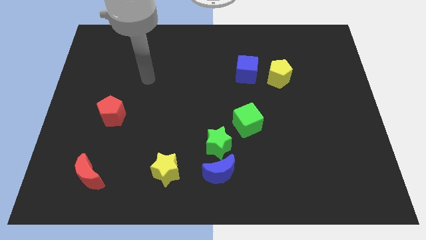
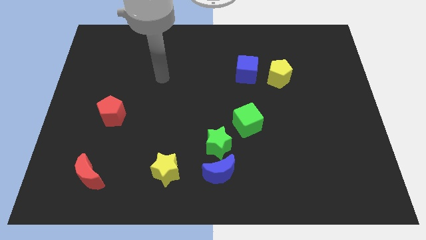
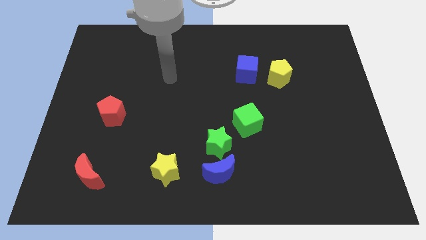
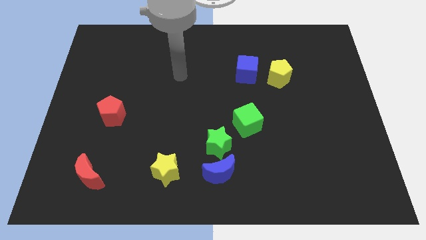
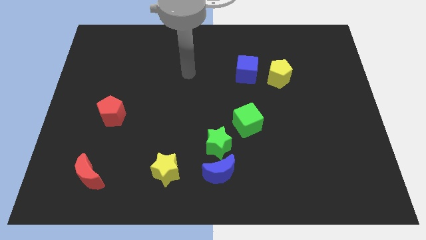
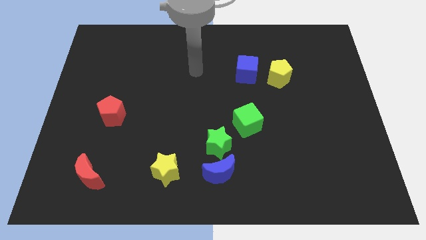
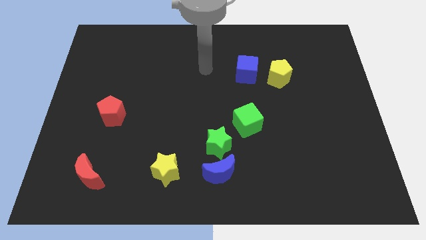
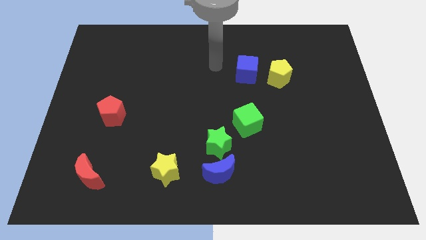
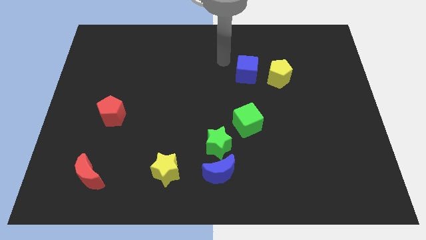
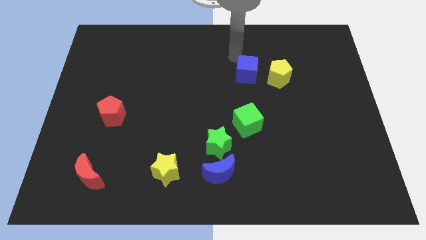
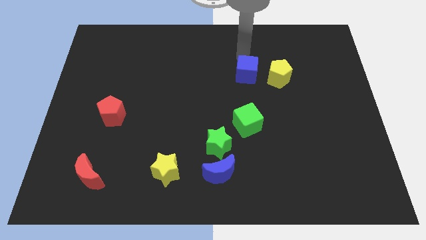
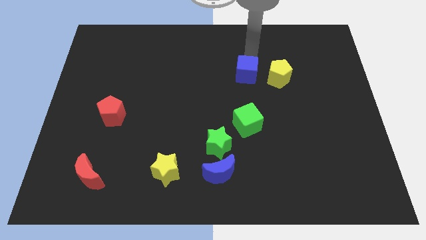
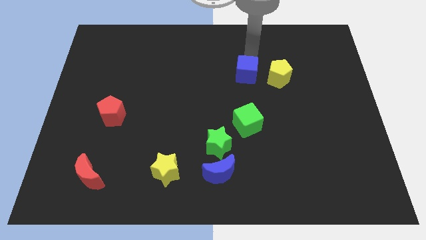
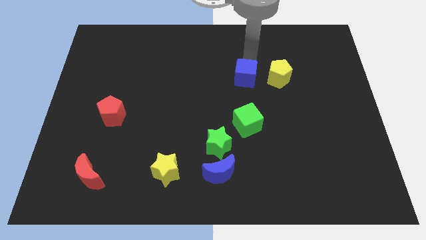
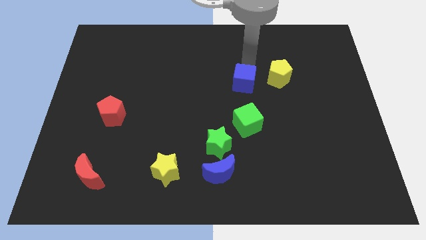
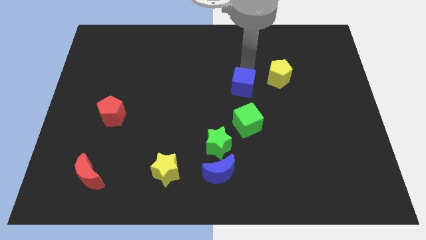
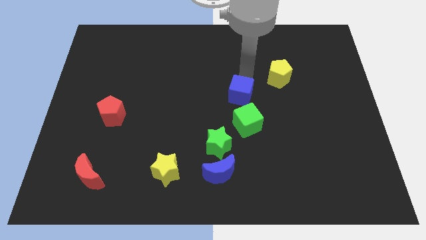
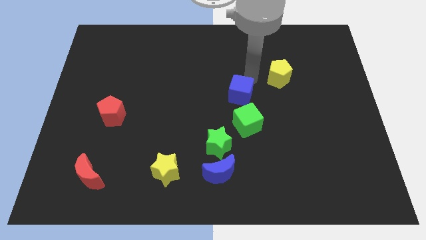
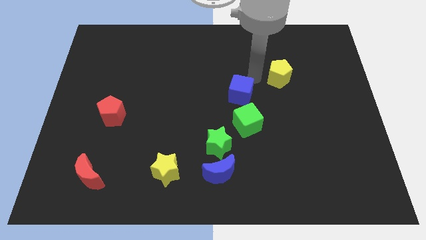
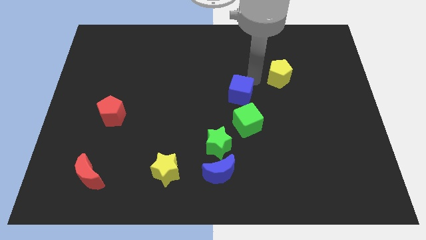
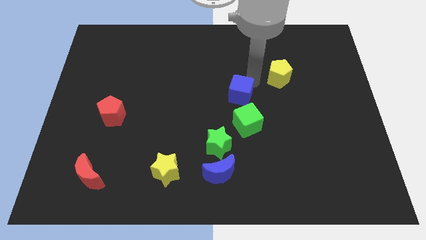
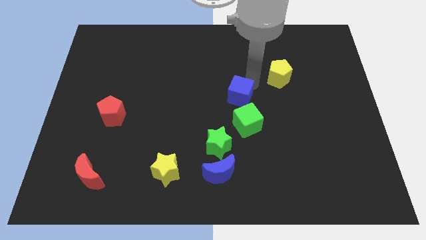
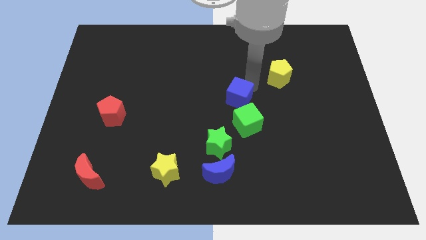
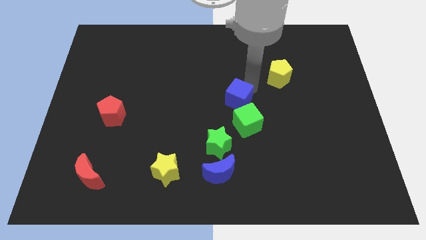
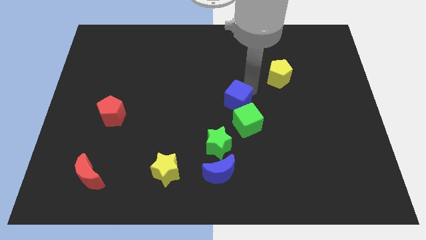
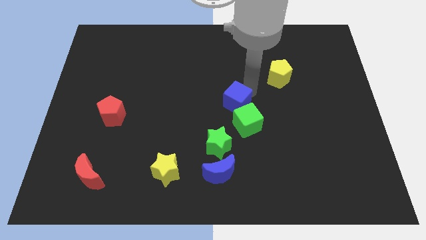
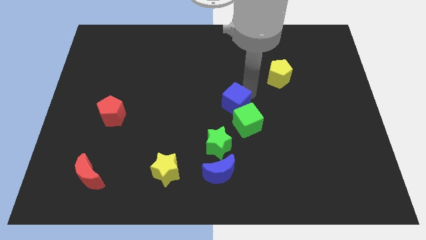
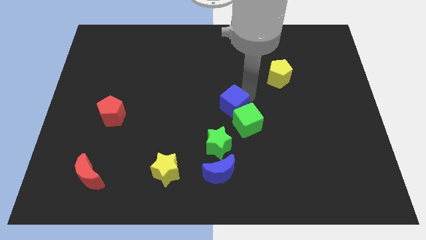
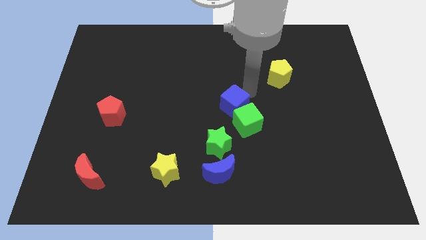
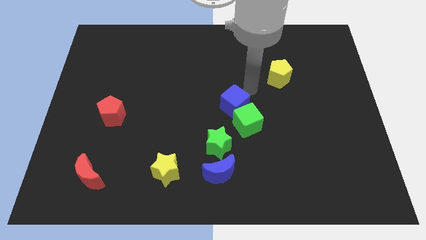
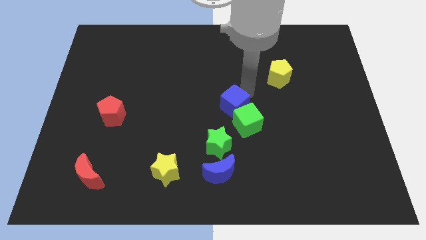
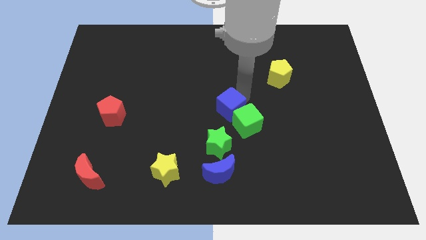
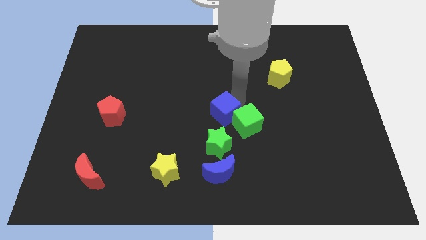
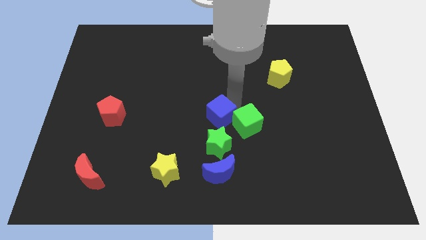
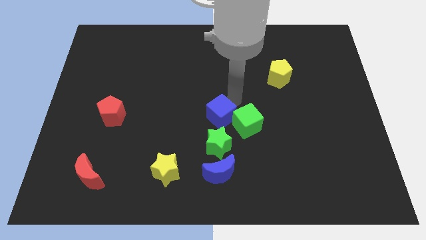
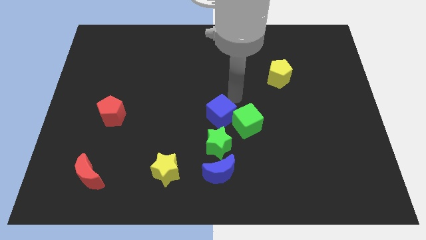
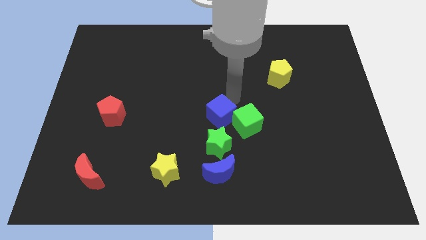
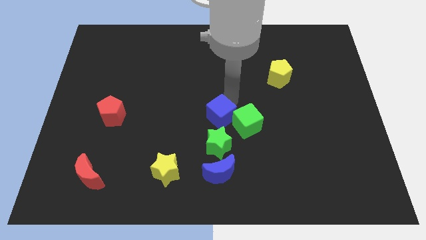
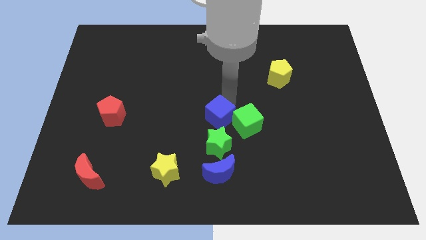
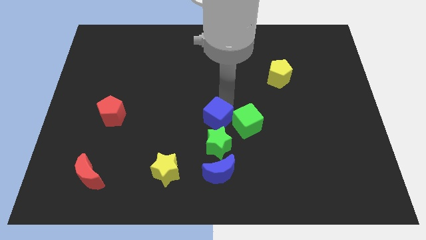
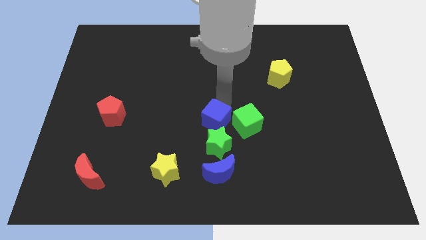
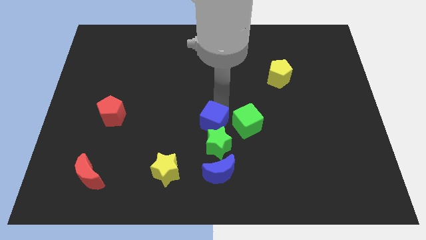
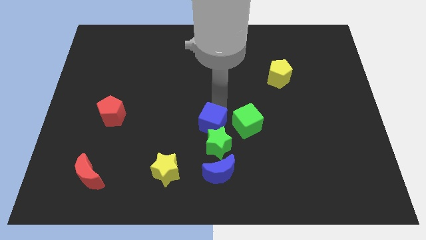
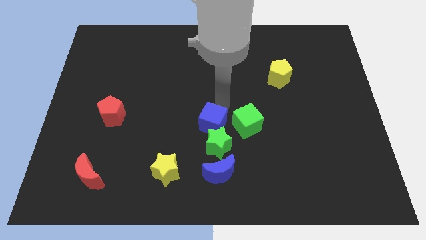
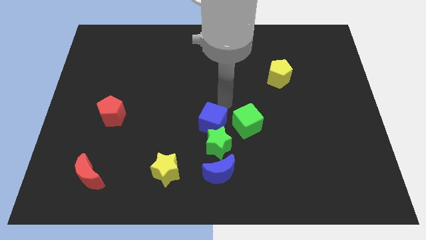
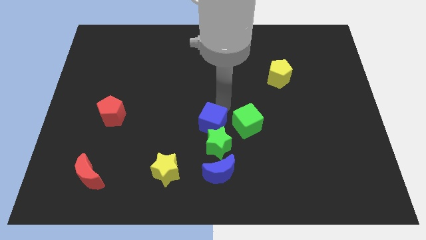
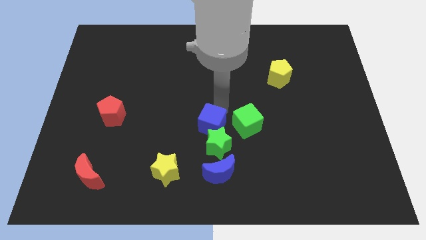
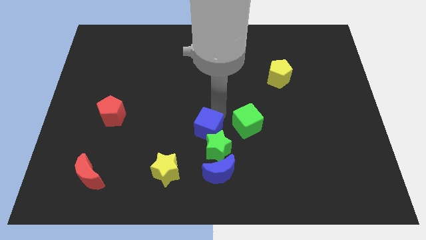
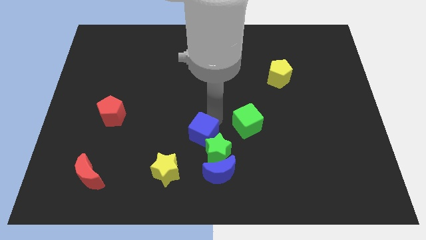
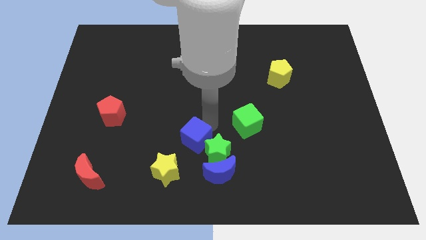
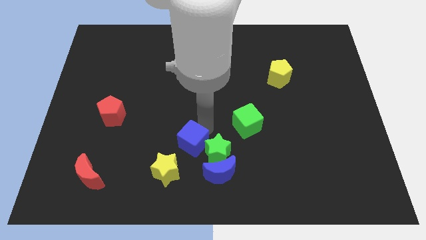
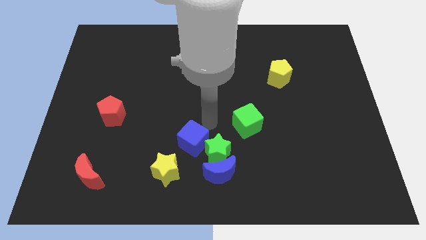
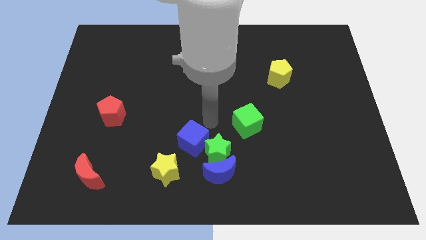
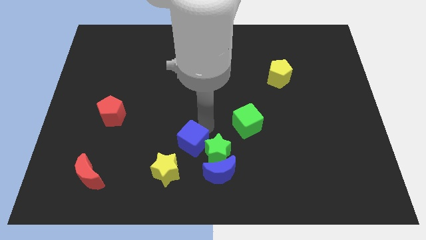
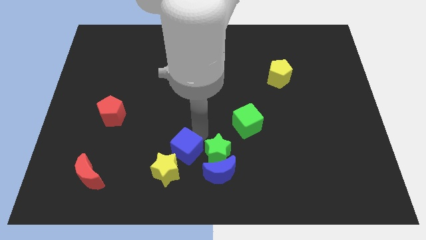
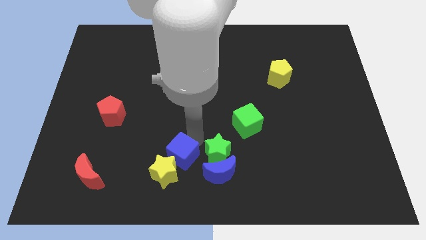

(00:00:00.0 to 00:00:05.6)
move the blue cube to the yellow star

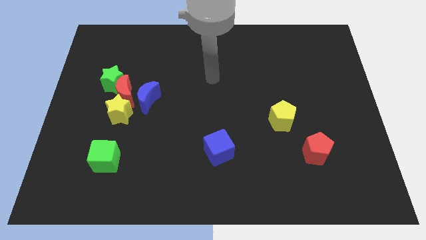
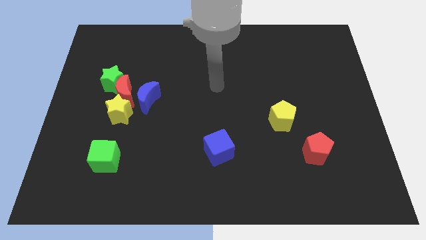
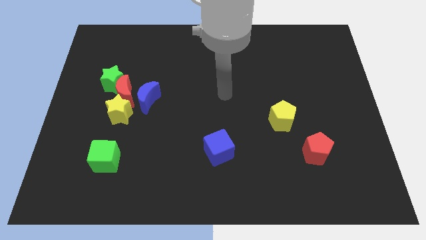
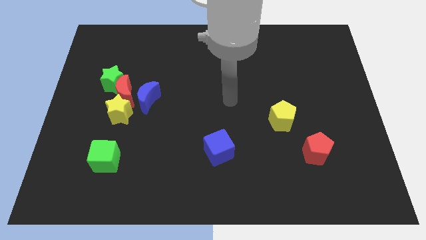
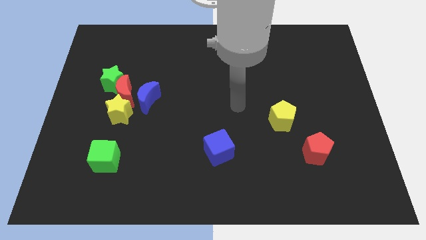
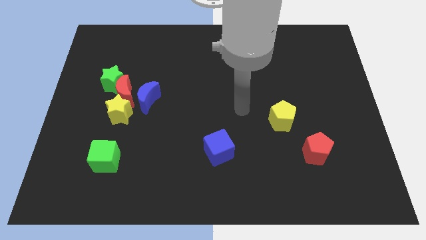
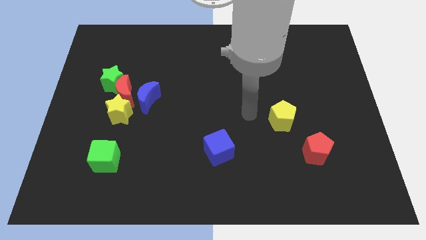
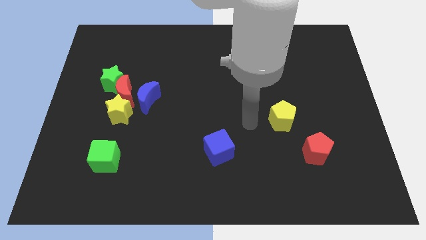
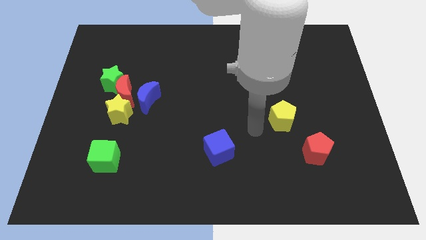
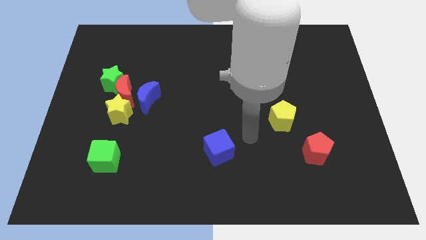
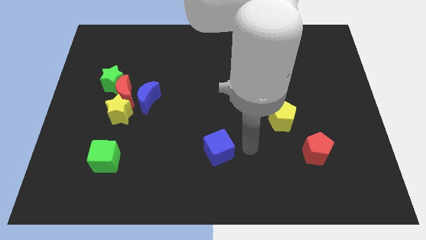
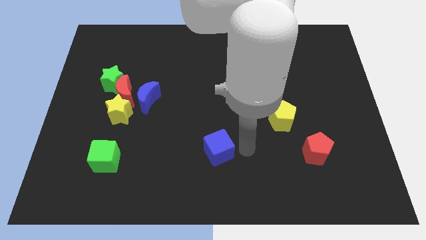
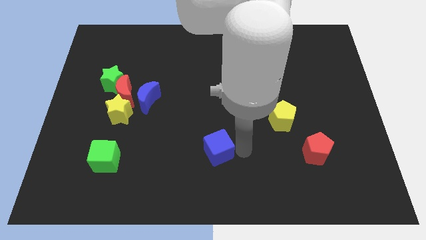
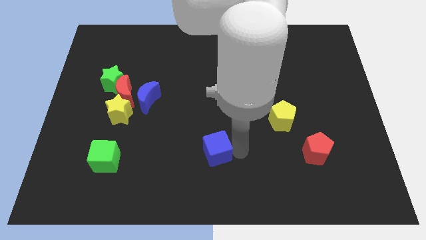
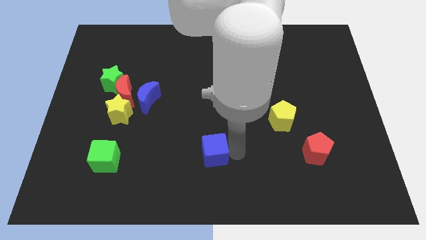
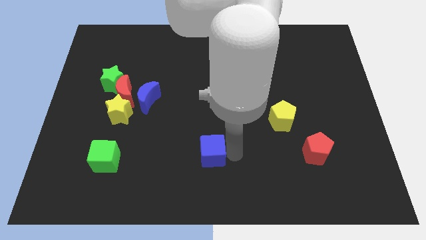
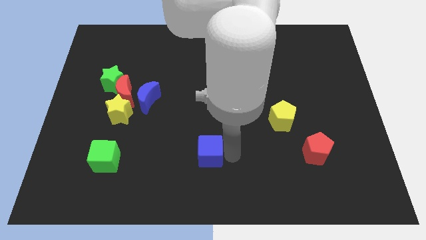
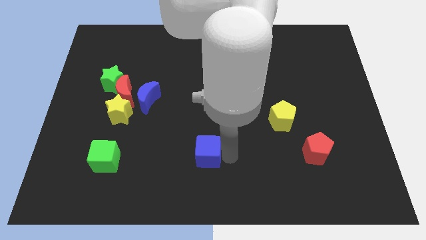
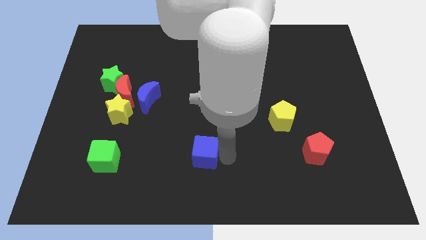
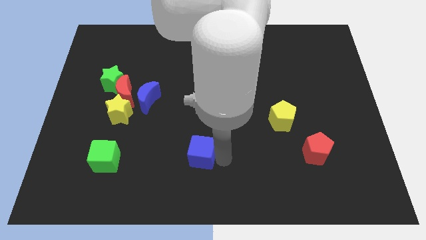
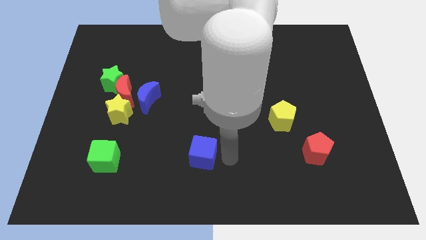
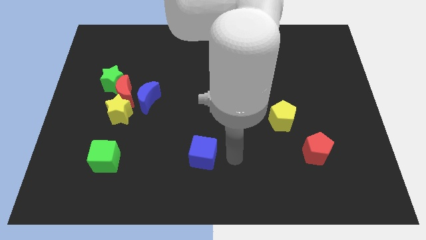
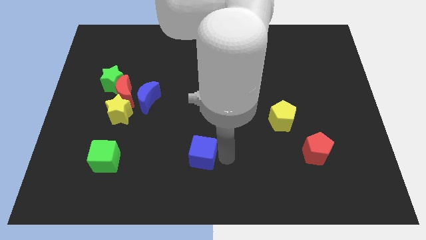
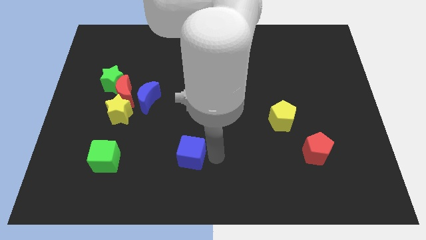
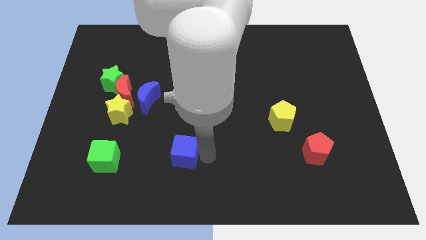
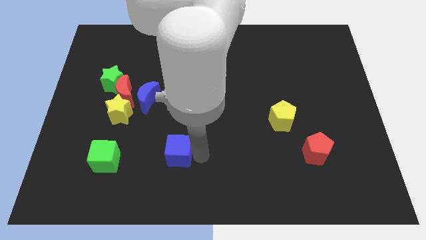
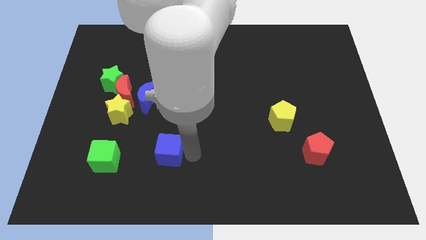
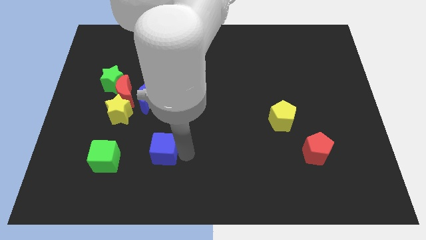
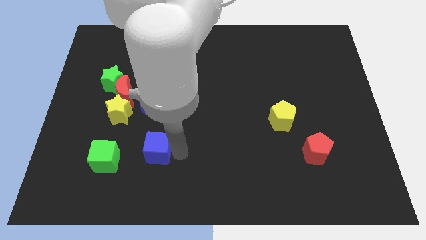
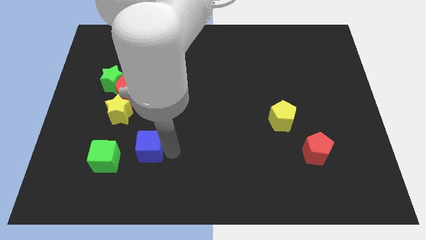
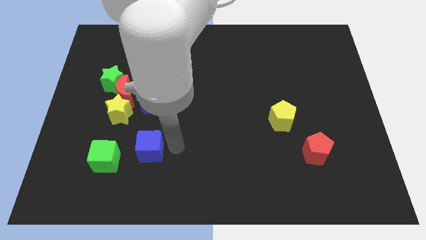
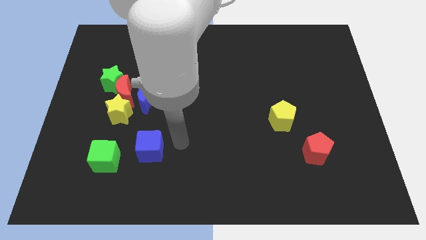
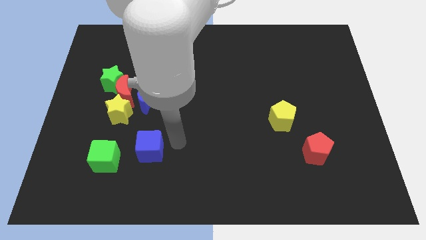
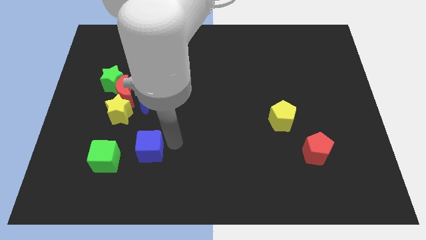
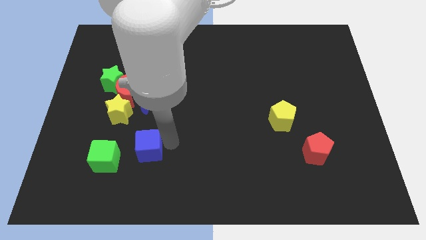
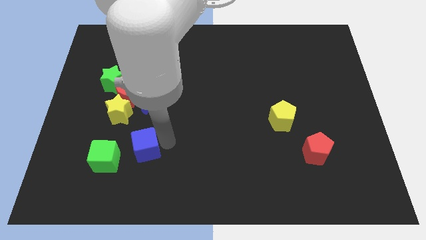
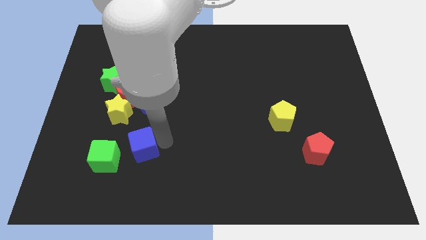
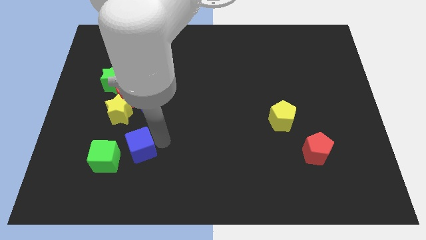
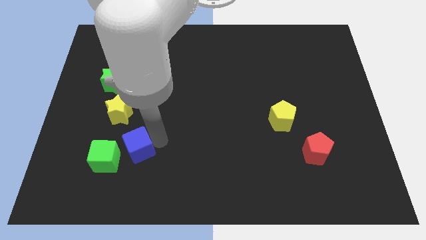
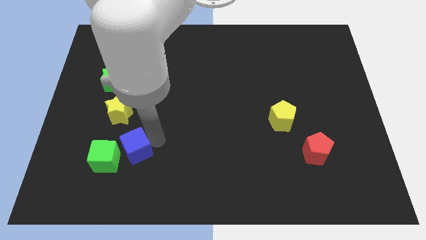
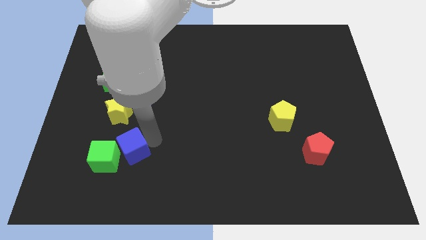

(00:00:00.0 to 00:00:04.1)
slide the blue cube close to the green cube
